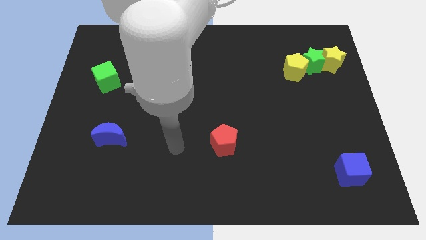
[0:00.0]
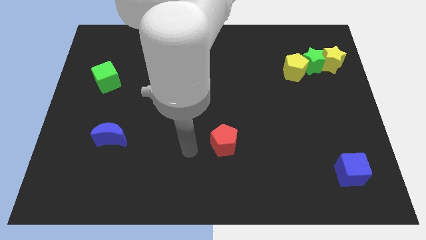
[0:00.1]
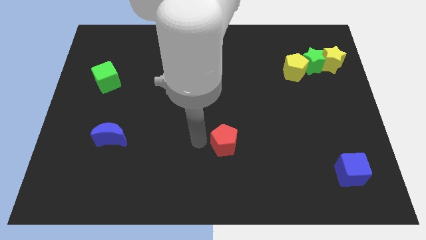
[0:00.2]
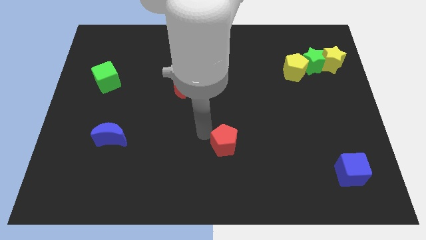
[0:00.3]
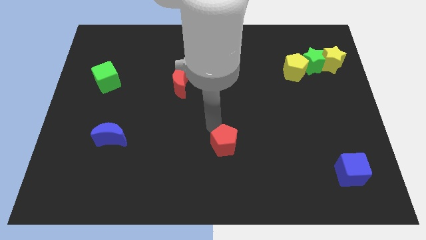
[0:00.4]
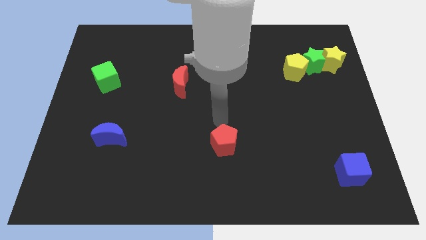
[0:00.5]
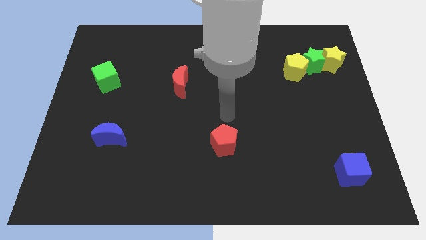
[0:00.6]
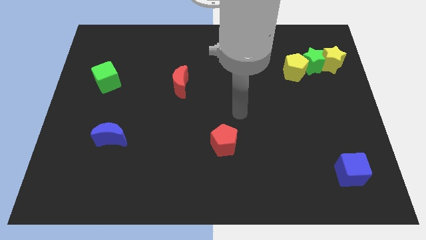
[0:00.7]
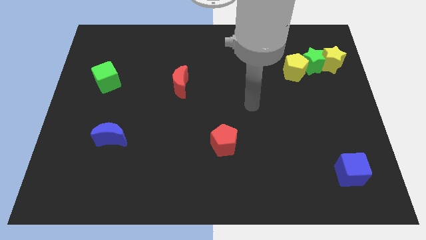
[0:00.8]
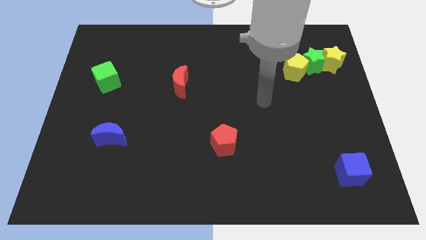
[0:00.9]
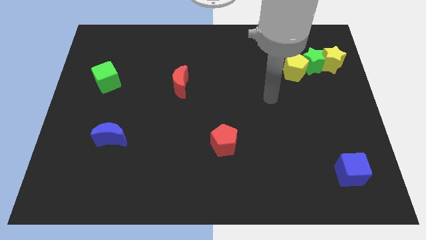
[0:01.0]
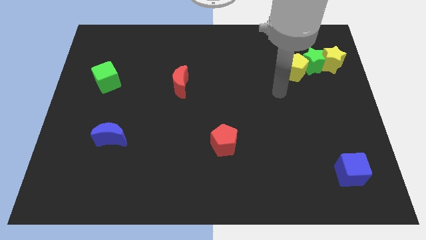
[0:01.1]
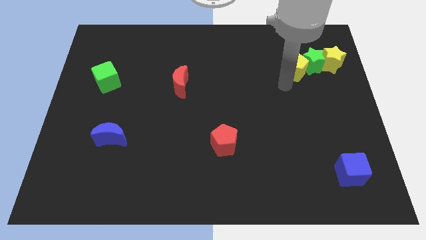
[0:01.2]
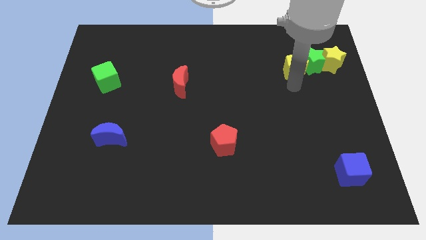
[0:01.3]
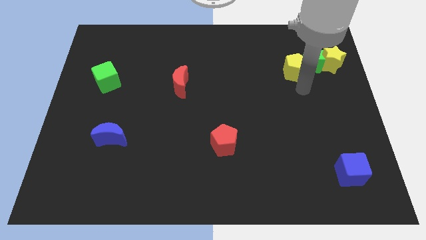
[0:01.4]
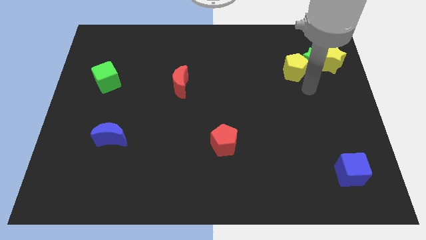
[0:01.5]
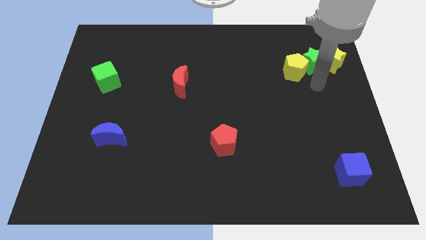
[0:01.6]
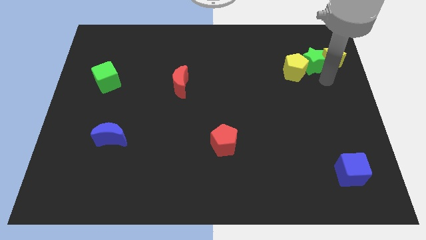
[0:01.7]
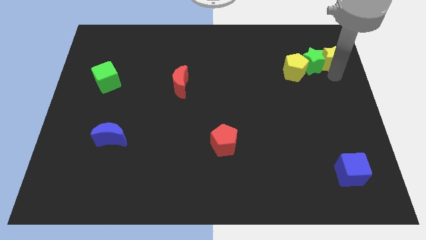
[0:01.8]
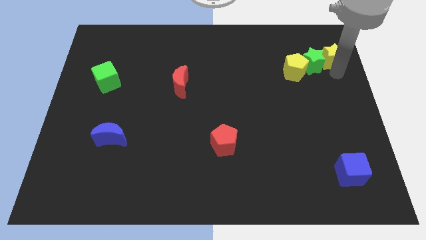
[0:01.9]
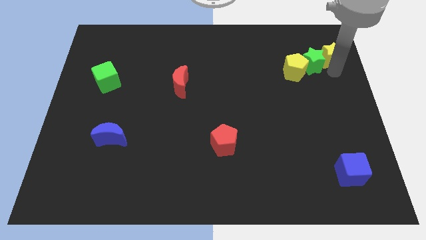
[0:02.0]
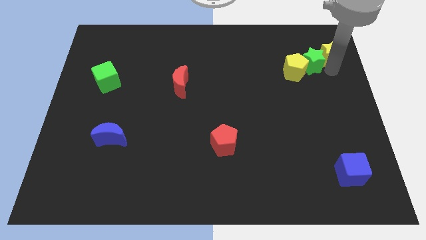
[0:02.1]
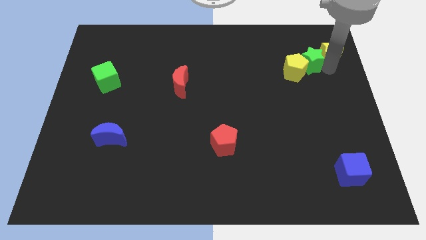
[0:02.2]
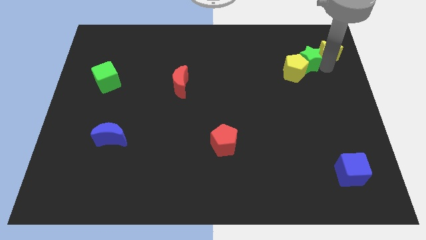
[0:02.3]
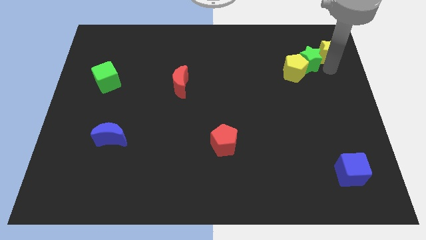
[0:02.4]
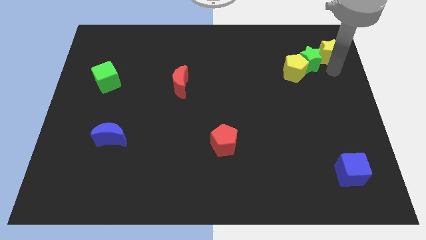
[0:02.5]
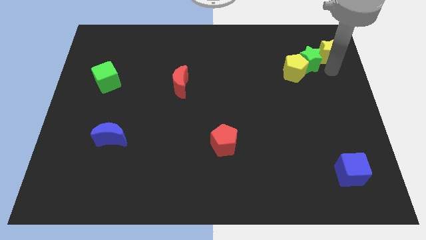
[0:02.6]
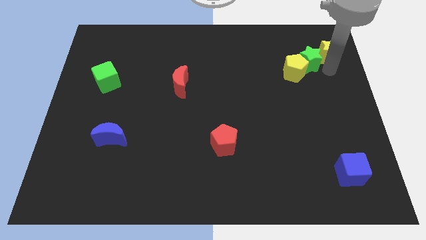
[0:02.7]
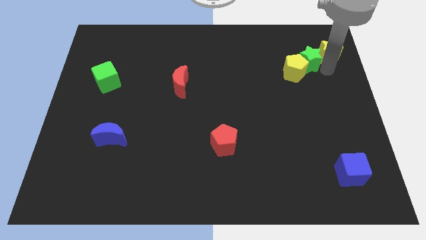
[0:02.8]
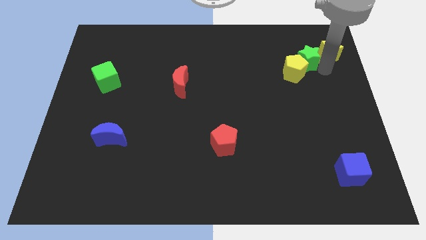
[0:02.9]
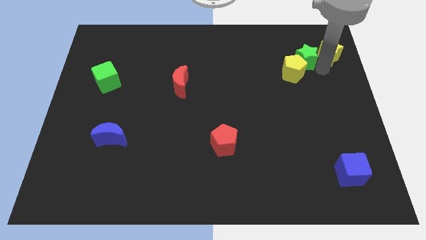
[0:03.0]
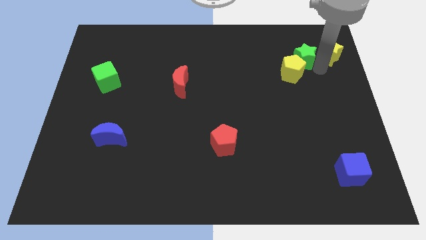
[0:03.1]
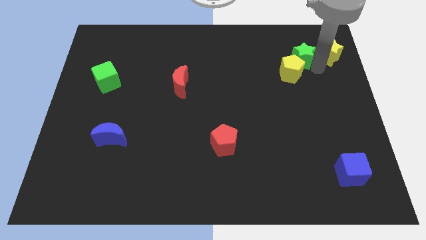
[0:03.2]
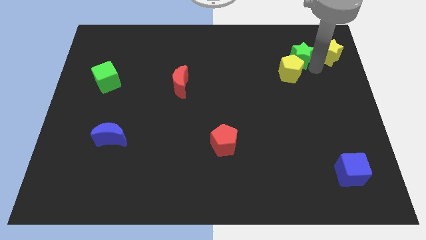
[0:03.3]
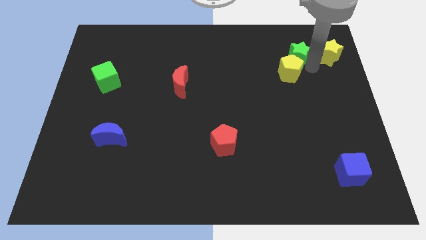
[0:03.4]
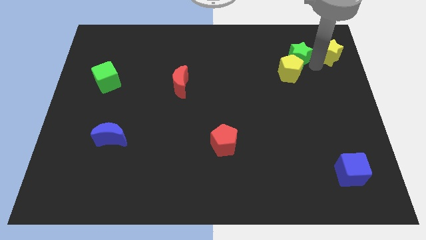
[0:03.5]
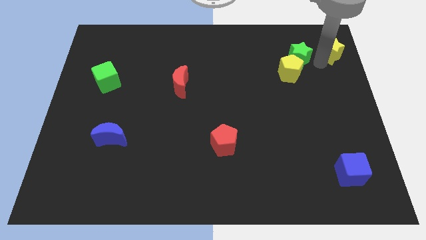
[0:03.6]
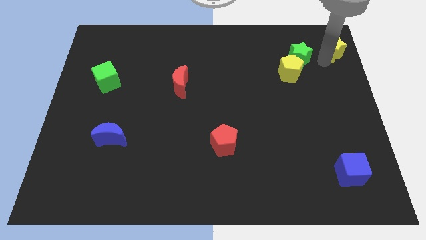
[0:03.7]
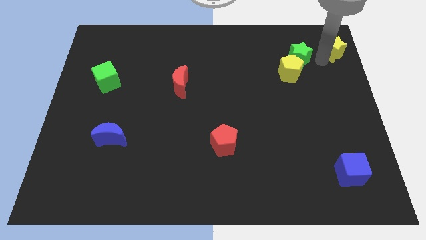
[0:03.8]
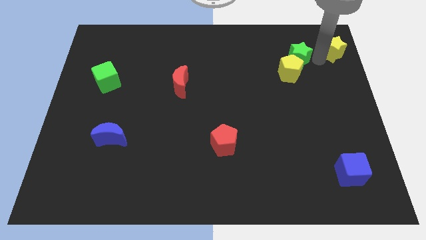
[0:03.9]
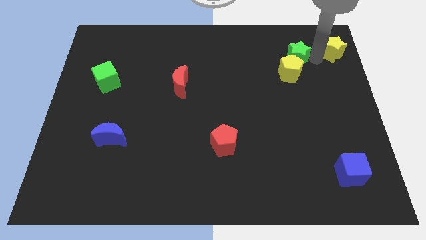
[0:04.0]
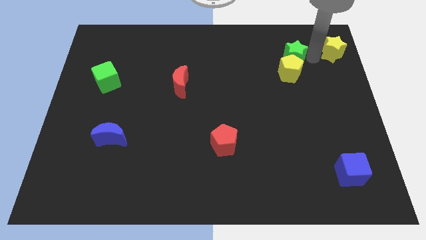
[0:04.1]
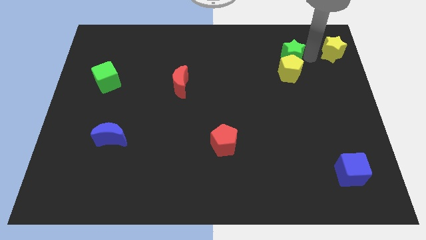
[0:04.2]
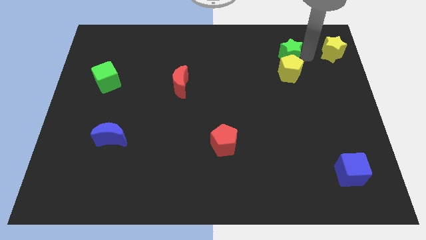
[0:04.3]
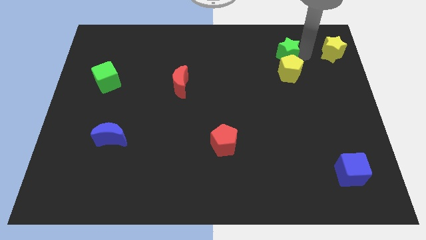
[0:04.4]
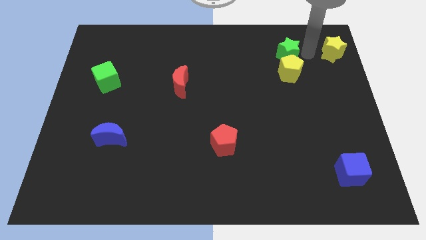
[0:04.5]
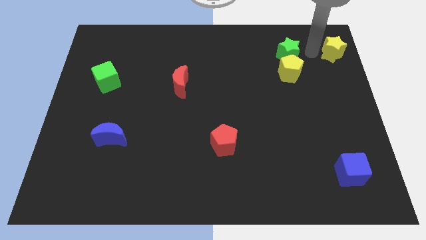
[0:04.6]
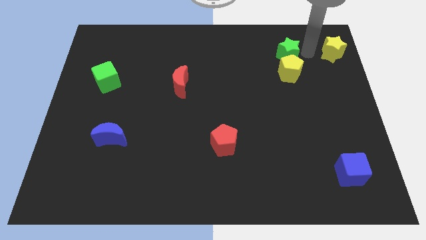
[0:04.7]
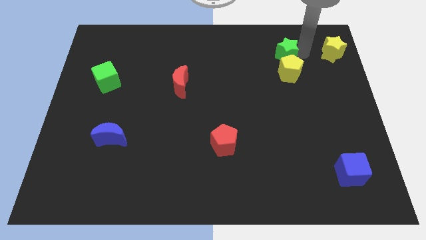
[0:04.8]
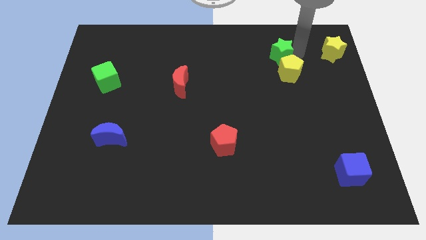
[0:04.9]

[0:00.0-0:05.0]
slightly push the green star to the left

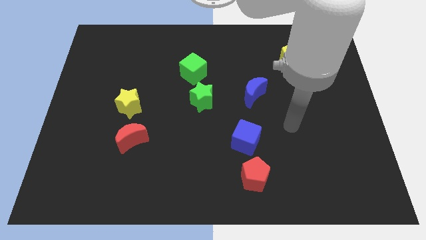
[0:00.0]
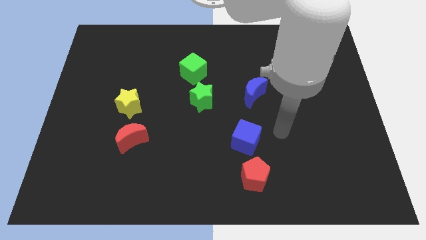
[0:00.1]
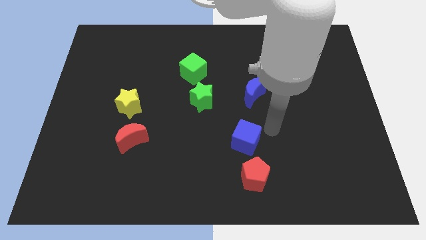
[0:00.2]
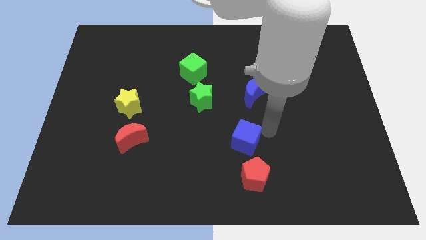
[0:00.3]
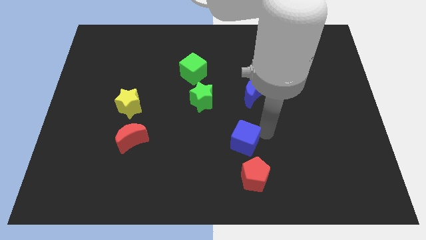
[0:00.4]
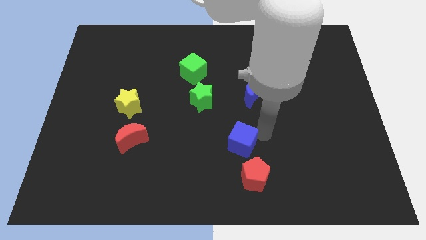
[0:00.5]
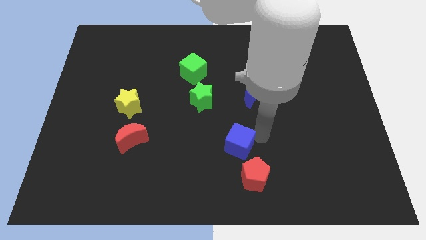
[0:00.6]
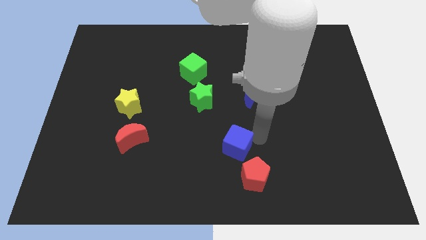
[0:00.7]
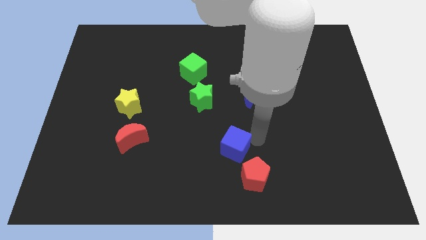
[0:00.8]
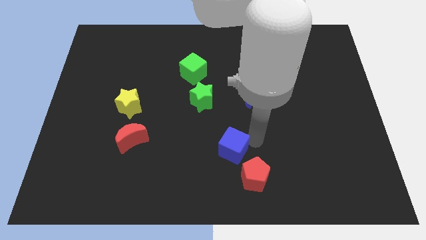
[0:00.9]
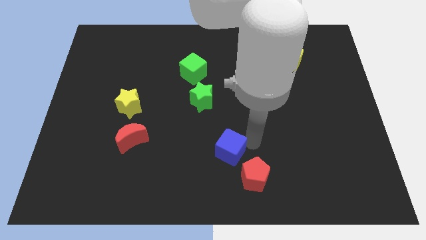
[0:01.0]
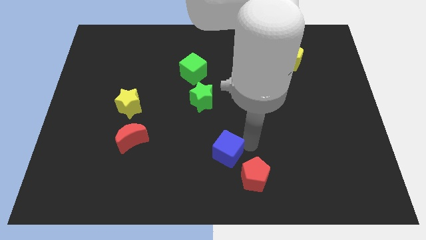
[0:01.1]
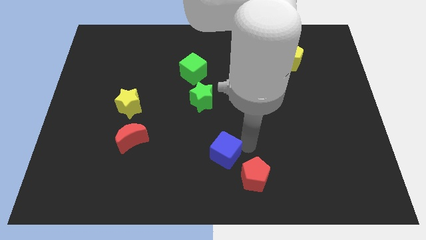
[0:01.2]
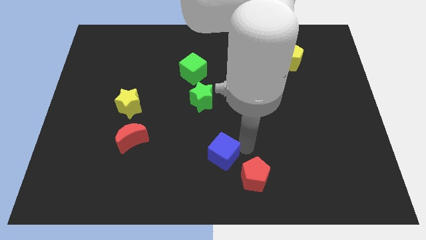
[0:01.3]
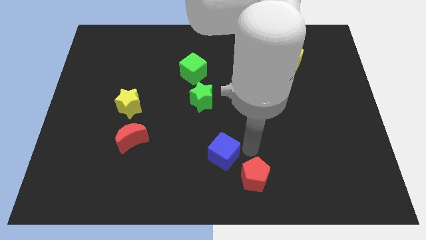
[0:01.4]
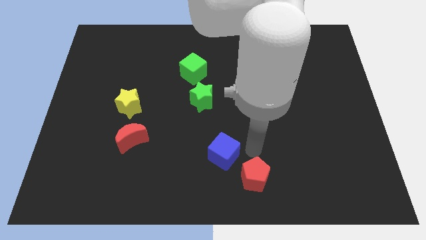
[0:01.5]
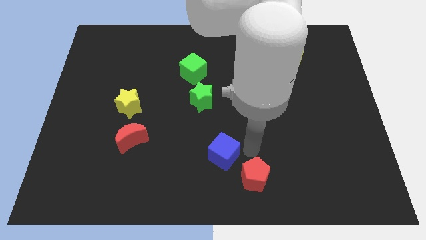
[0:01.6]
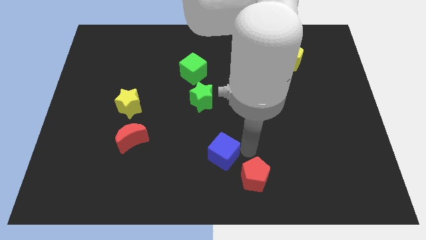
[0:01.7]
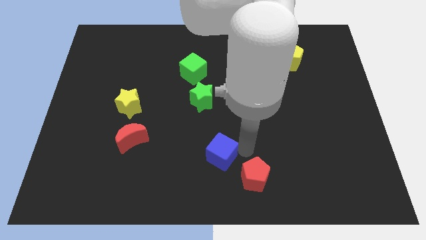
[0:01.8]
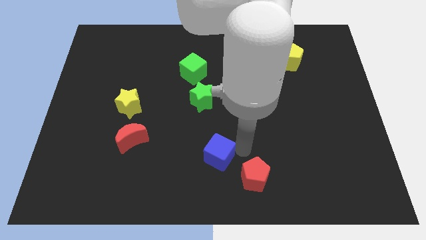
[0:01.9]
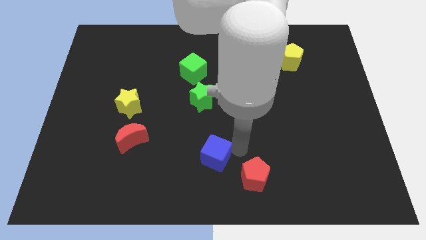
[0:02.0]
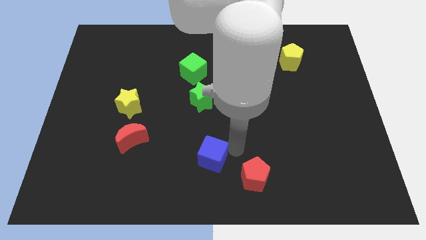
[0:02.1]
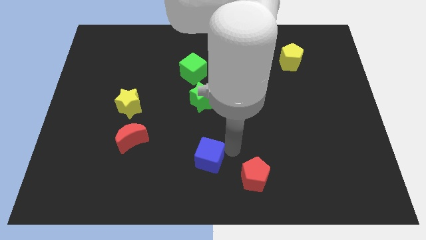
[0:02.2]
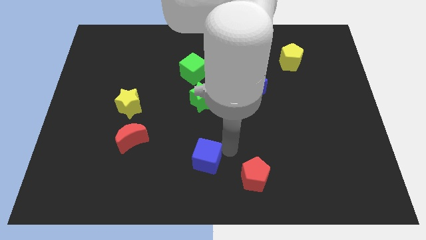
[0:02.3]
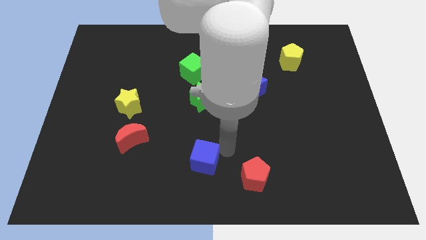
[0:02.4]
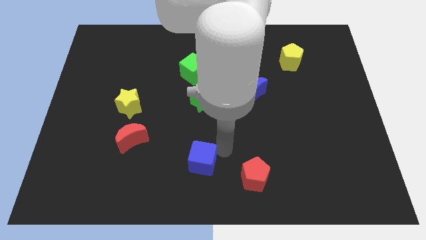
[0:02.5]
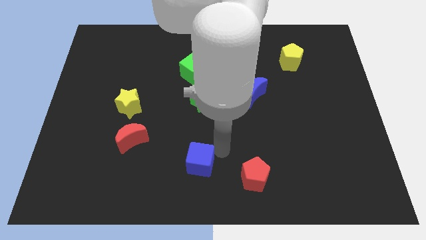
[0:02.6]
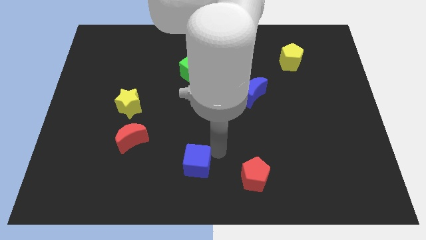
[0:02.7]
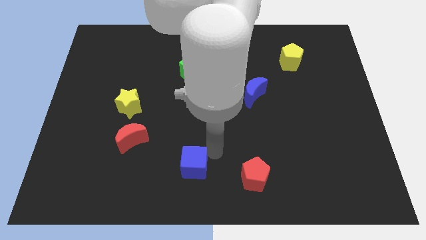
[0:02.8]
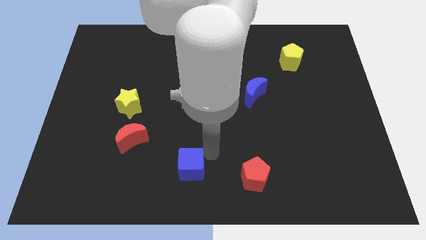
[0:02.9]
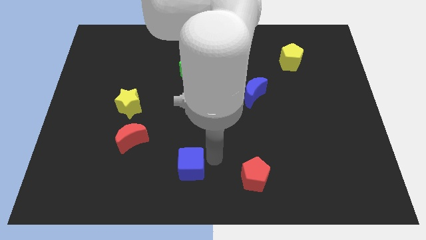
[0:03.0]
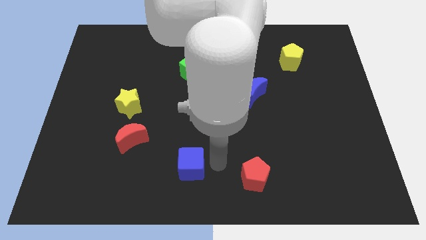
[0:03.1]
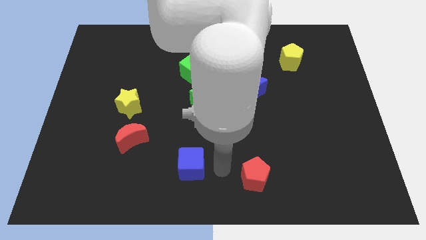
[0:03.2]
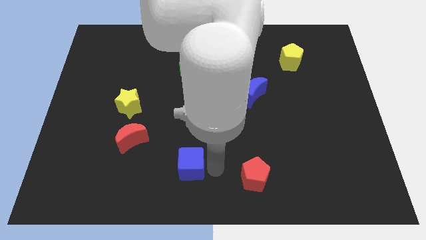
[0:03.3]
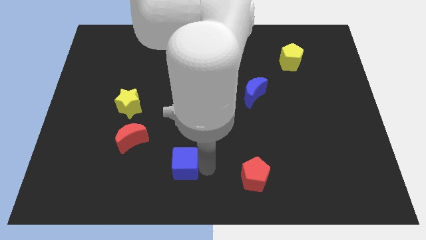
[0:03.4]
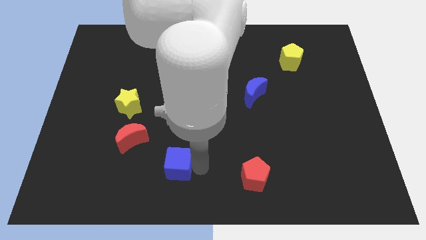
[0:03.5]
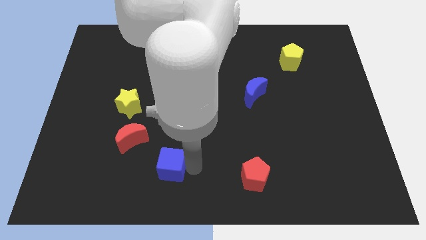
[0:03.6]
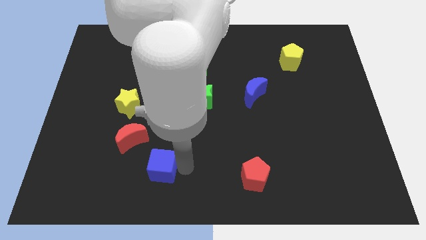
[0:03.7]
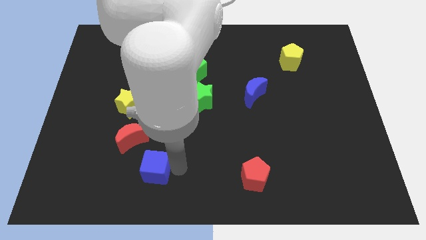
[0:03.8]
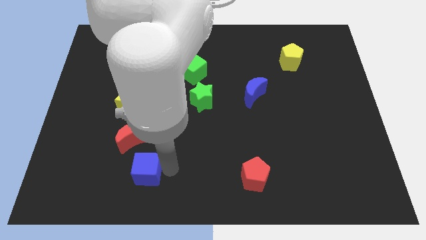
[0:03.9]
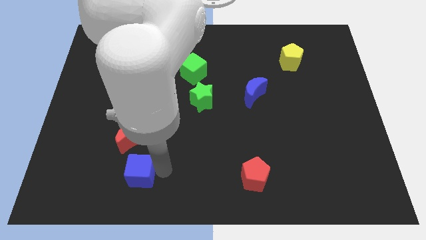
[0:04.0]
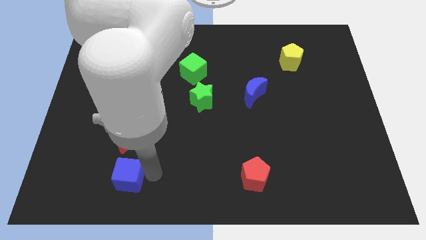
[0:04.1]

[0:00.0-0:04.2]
slide the blue cube to the left
